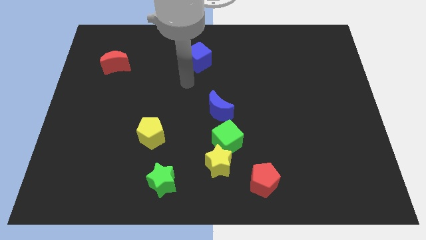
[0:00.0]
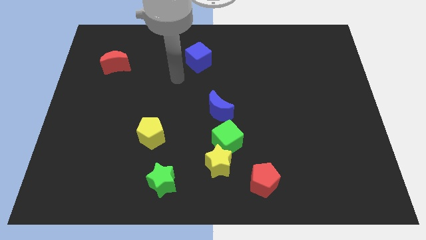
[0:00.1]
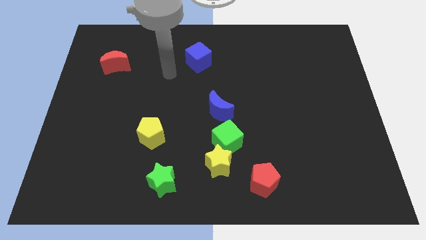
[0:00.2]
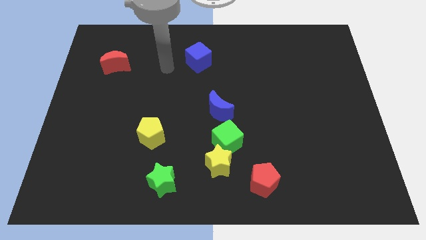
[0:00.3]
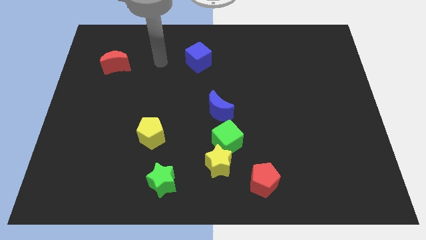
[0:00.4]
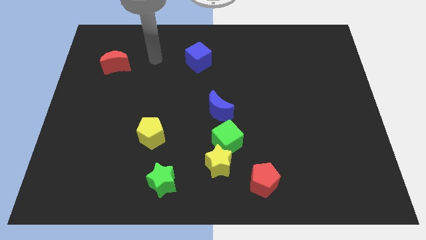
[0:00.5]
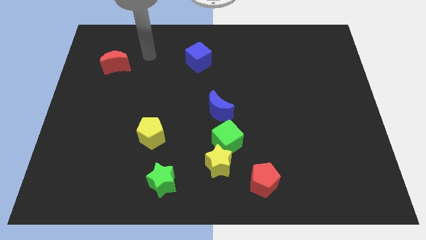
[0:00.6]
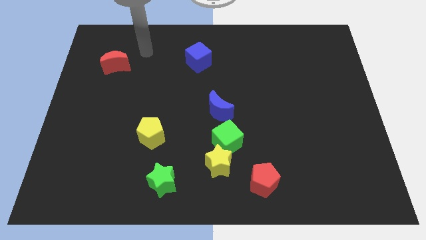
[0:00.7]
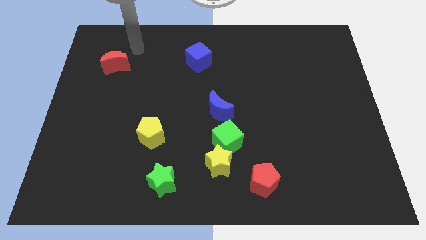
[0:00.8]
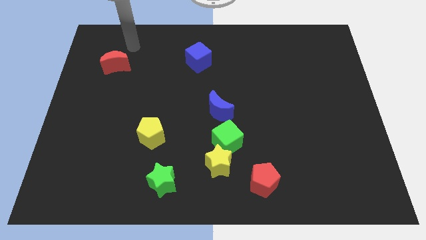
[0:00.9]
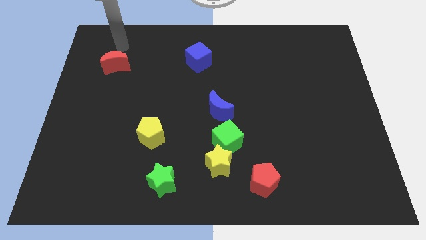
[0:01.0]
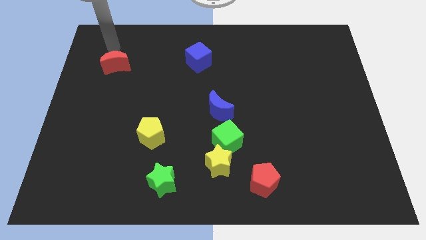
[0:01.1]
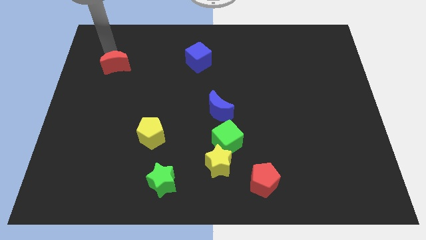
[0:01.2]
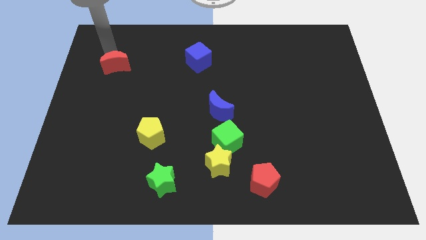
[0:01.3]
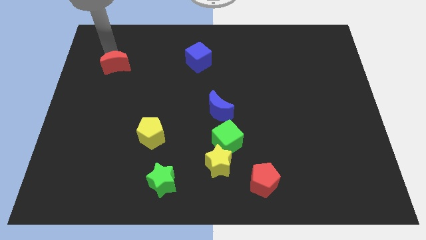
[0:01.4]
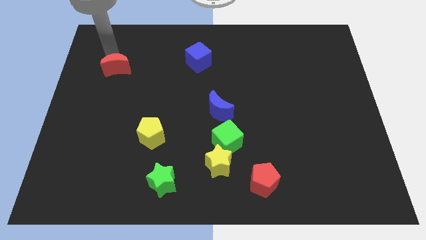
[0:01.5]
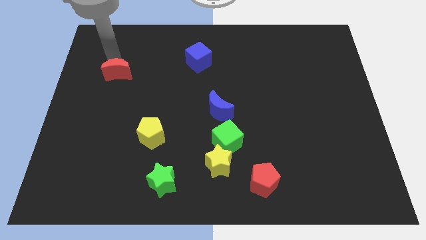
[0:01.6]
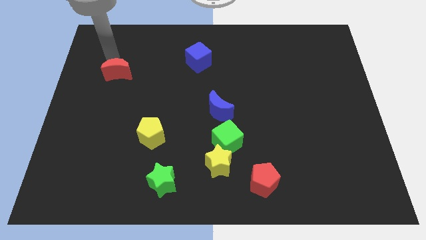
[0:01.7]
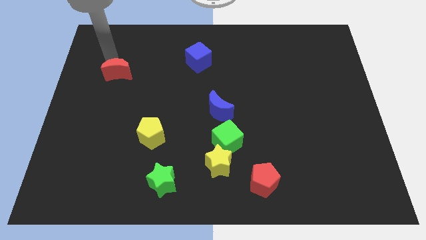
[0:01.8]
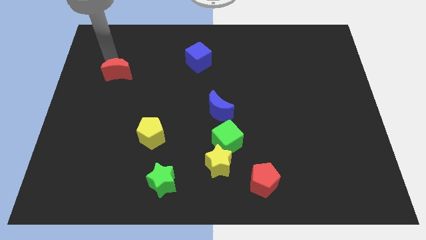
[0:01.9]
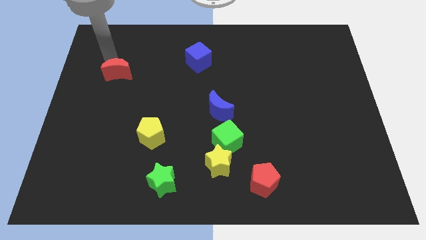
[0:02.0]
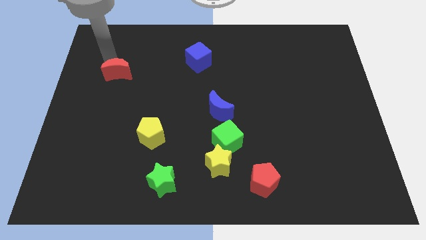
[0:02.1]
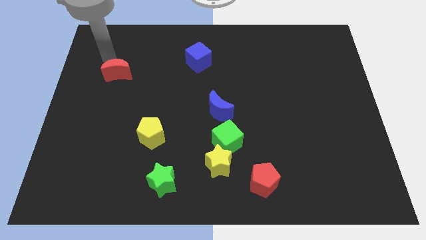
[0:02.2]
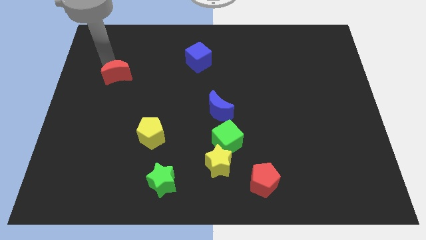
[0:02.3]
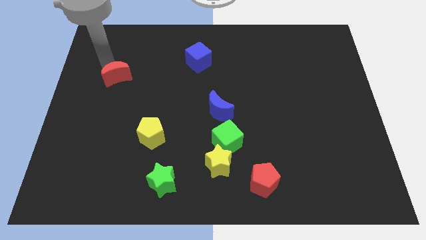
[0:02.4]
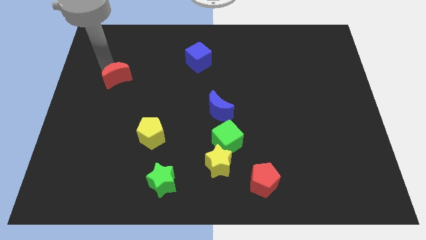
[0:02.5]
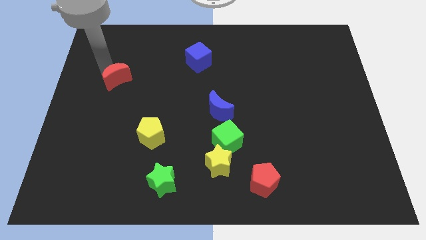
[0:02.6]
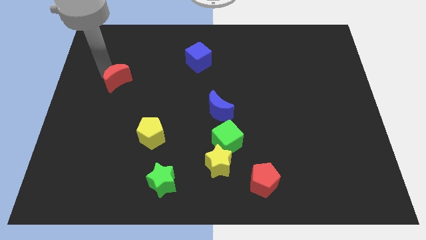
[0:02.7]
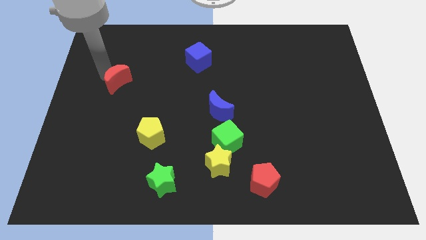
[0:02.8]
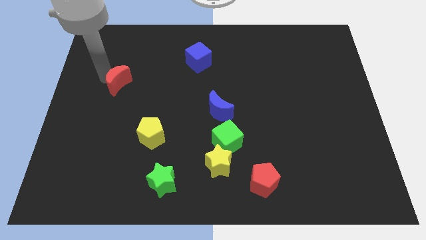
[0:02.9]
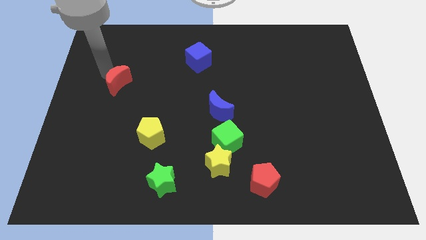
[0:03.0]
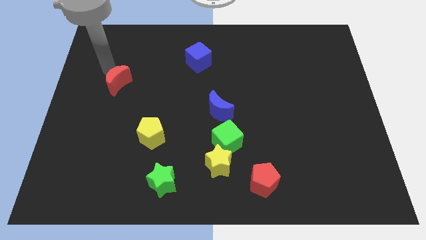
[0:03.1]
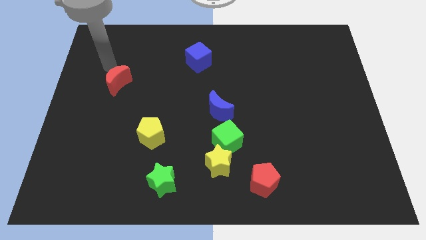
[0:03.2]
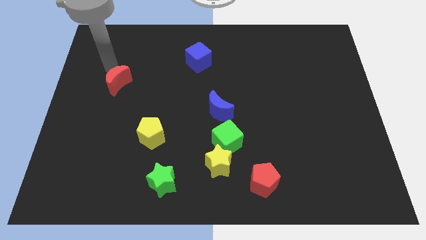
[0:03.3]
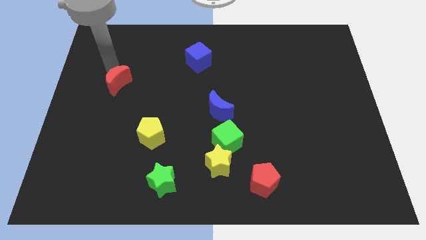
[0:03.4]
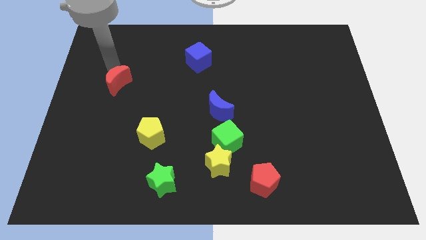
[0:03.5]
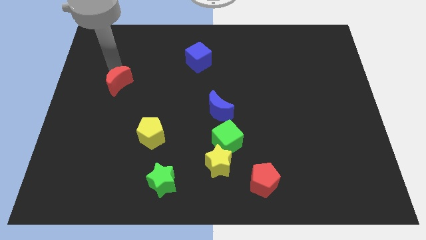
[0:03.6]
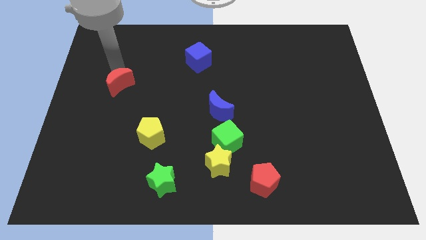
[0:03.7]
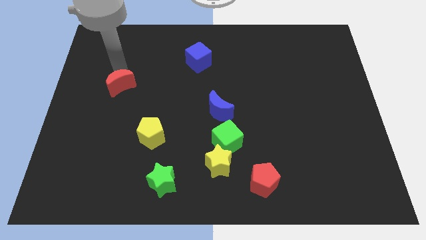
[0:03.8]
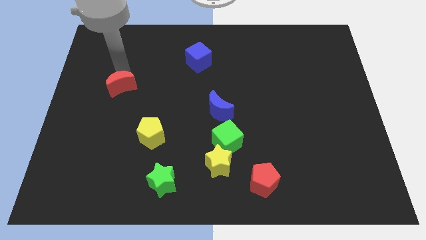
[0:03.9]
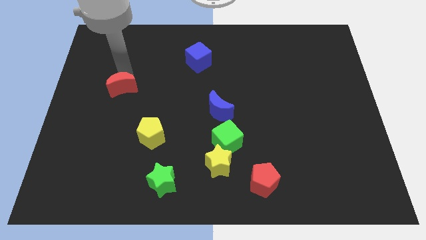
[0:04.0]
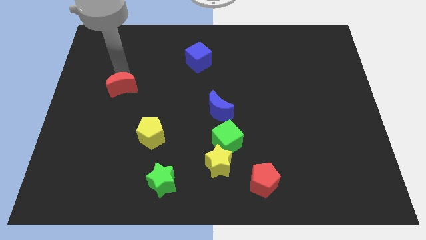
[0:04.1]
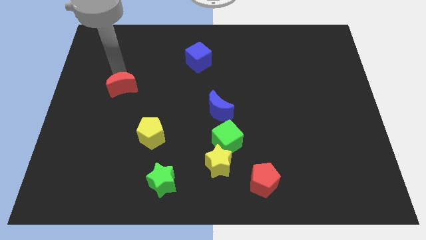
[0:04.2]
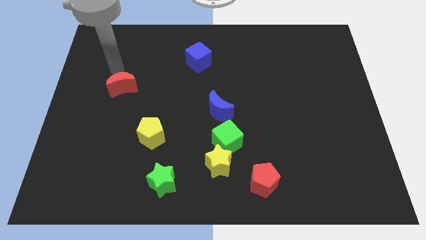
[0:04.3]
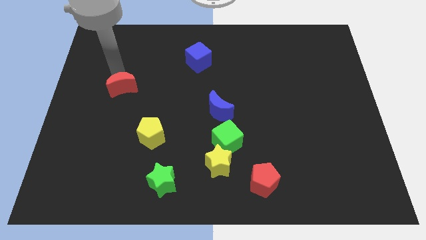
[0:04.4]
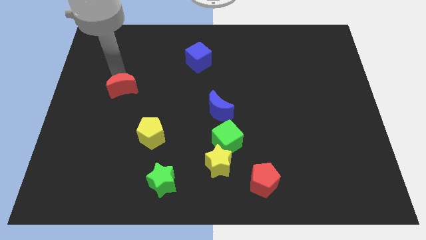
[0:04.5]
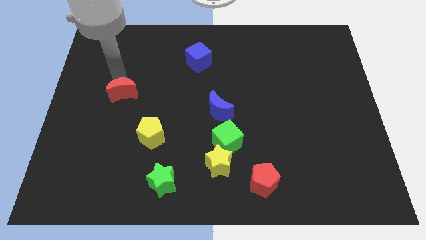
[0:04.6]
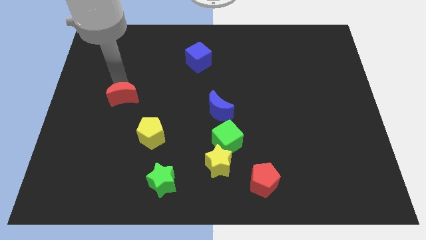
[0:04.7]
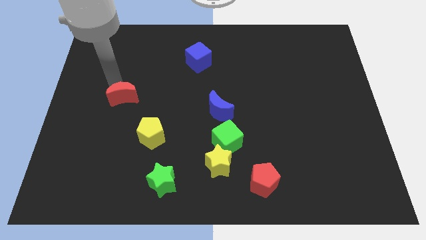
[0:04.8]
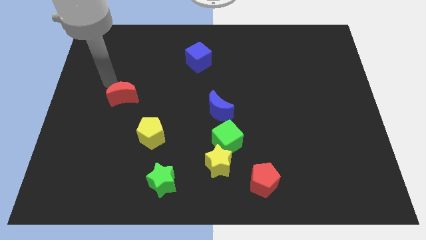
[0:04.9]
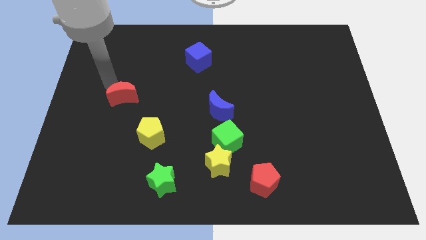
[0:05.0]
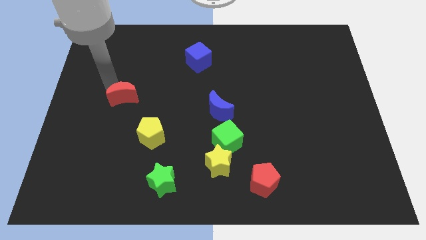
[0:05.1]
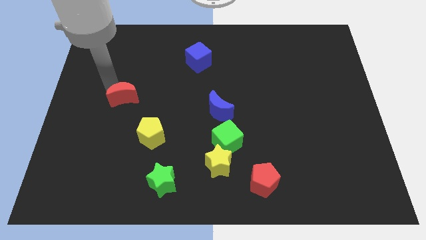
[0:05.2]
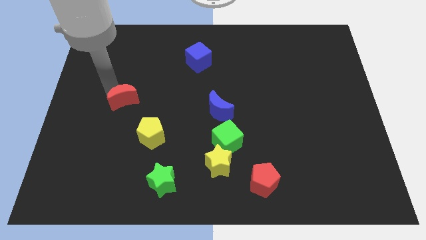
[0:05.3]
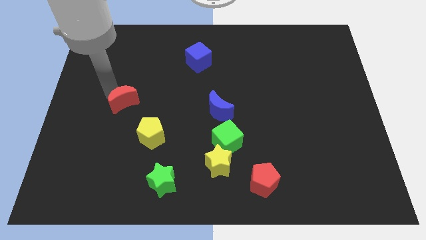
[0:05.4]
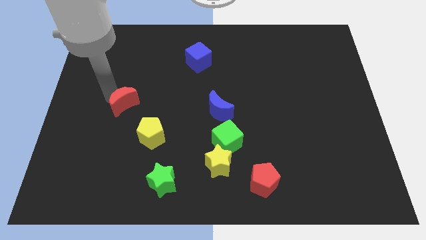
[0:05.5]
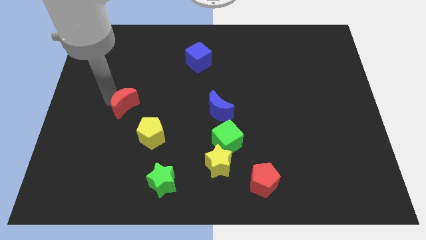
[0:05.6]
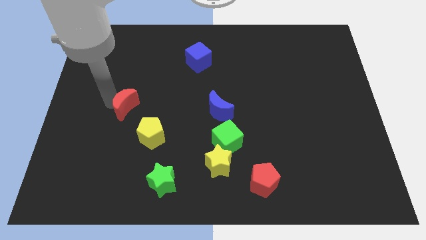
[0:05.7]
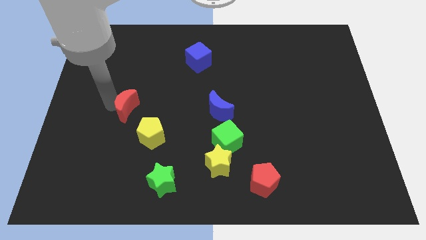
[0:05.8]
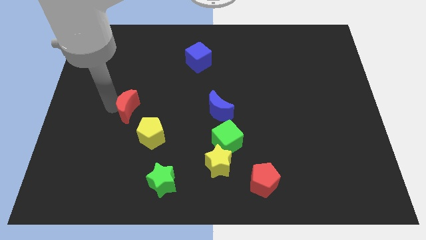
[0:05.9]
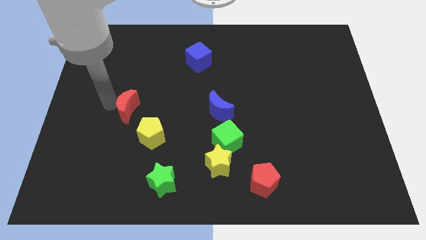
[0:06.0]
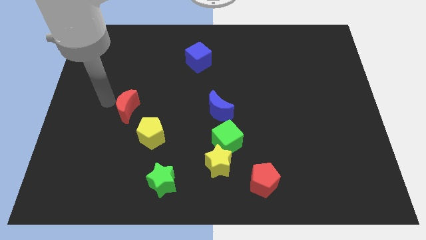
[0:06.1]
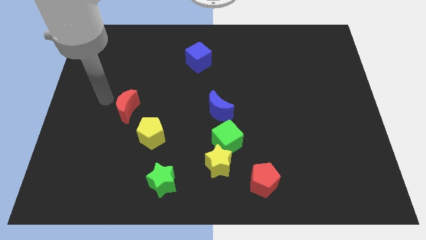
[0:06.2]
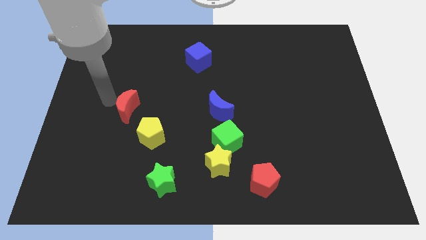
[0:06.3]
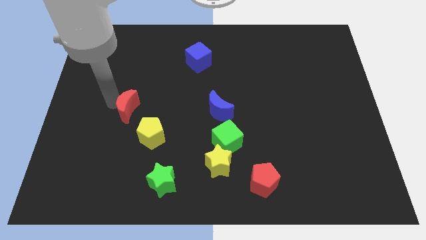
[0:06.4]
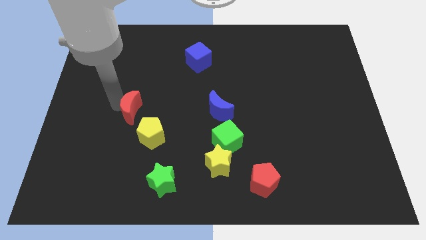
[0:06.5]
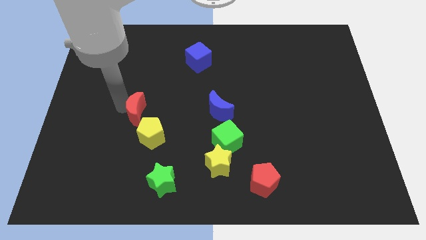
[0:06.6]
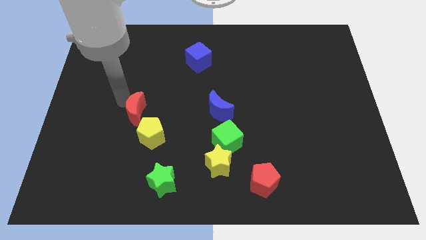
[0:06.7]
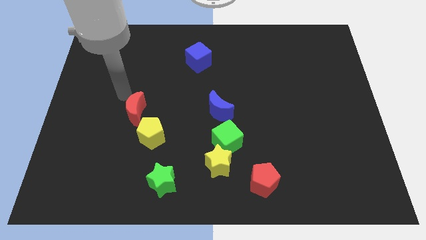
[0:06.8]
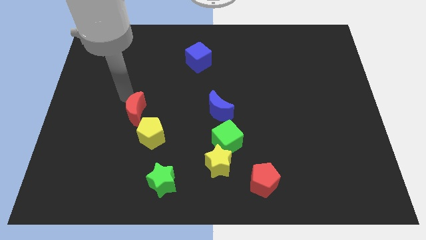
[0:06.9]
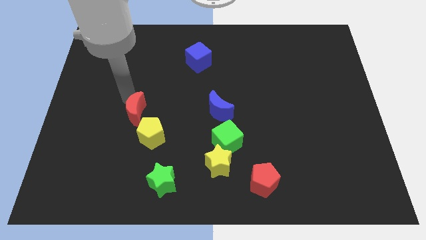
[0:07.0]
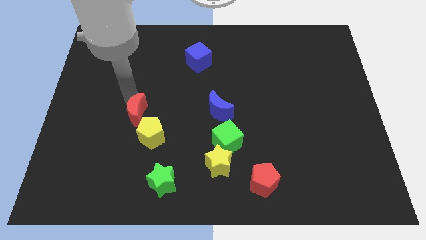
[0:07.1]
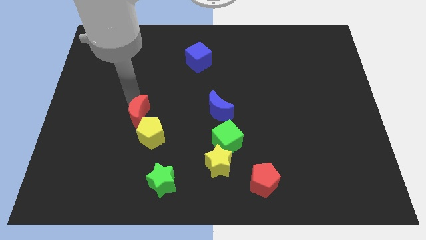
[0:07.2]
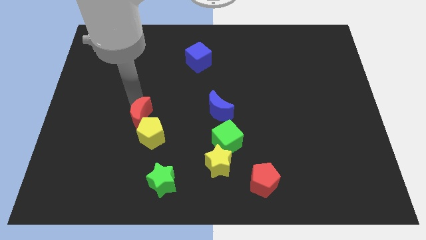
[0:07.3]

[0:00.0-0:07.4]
slide the red moon close to the yellow pentagon
